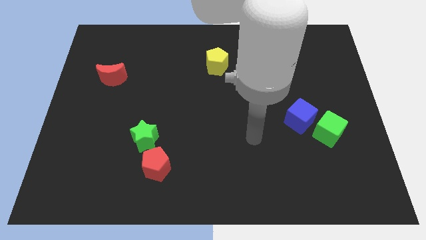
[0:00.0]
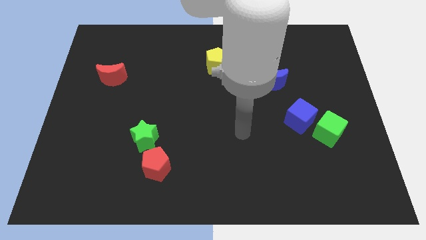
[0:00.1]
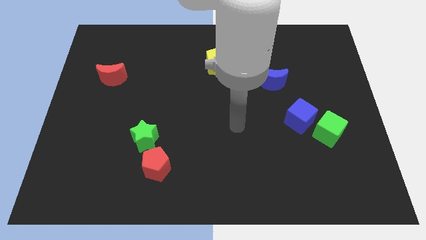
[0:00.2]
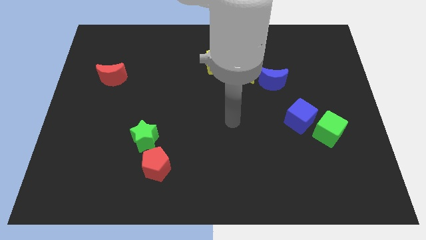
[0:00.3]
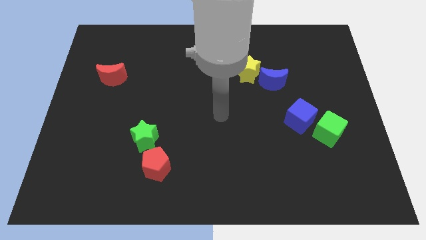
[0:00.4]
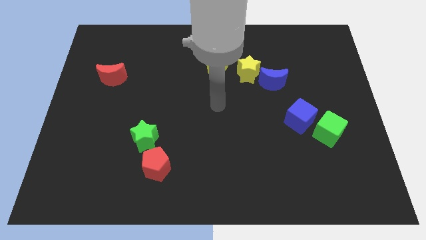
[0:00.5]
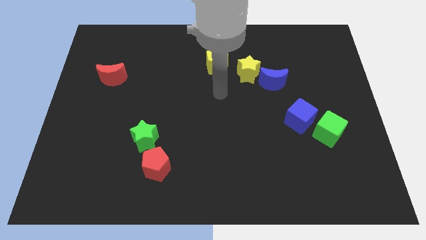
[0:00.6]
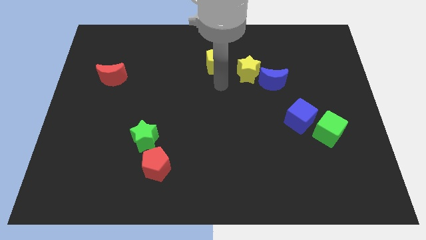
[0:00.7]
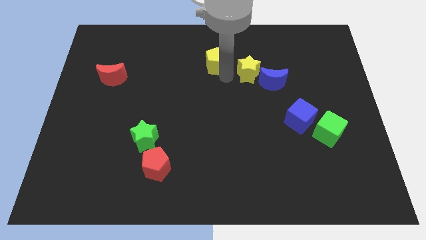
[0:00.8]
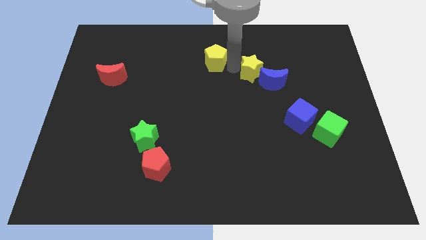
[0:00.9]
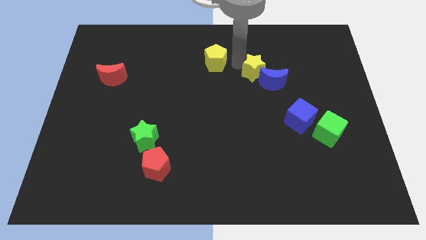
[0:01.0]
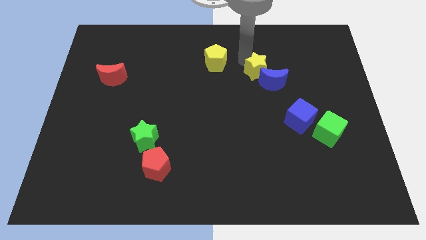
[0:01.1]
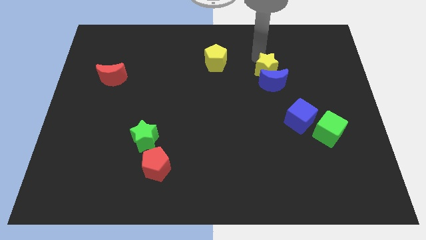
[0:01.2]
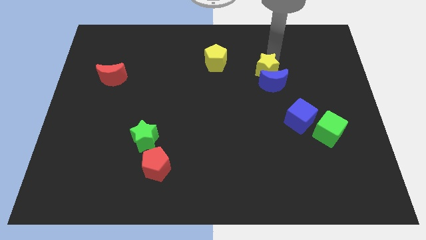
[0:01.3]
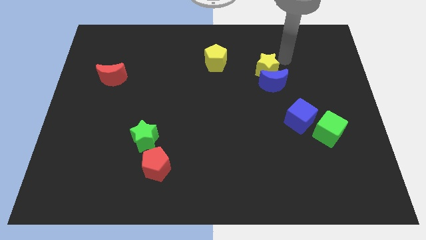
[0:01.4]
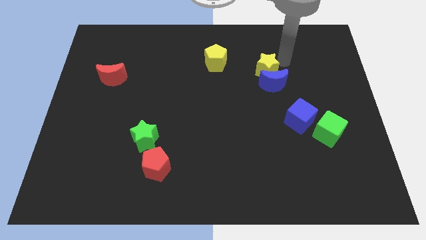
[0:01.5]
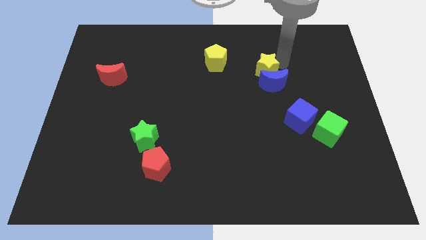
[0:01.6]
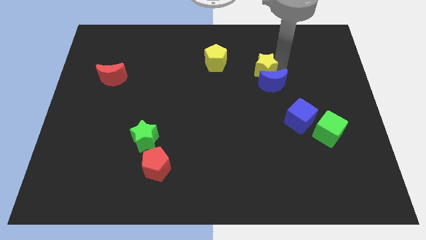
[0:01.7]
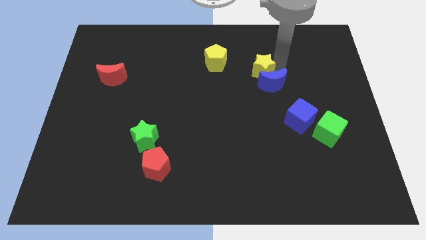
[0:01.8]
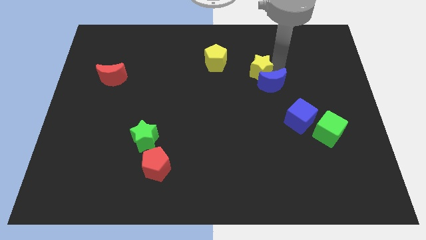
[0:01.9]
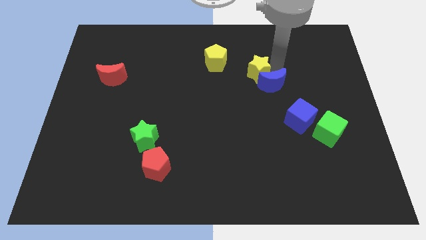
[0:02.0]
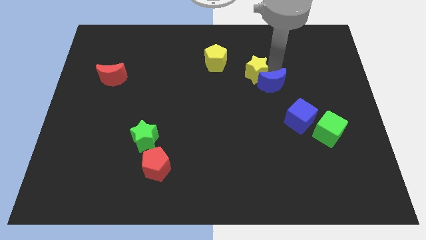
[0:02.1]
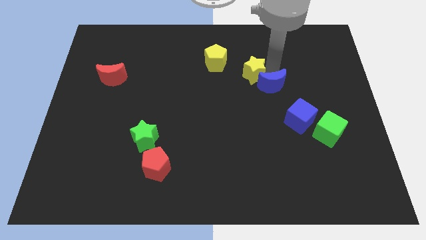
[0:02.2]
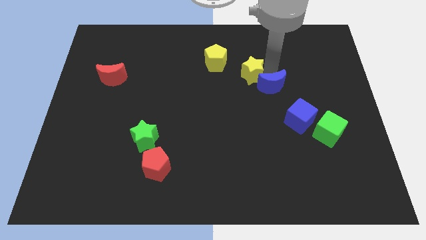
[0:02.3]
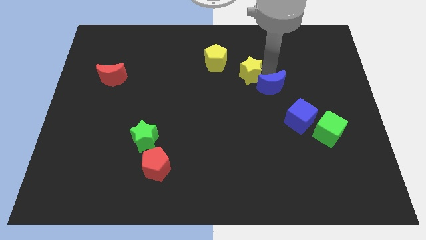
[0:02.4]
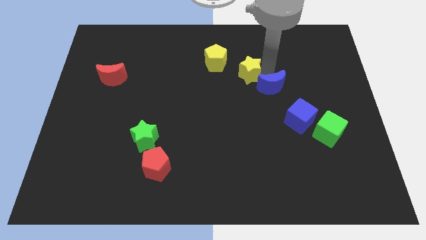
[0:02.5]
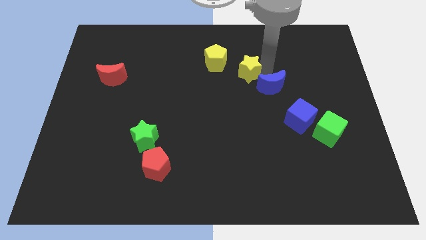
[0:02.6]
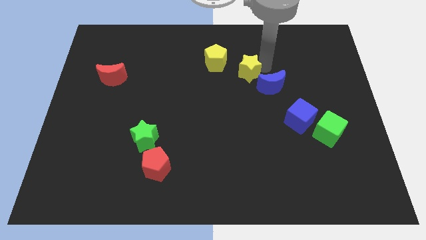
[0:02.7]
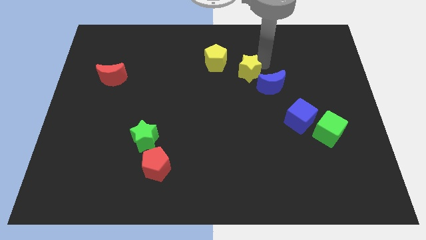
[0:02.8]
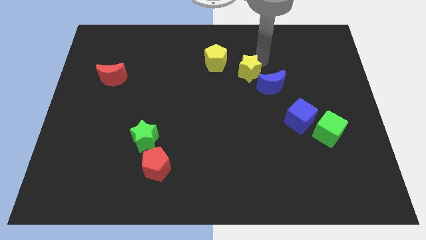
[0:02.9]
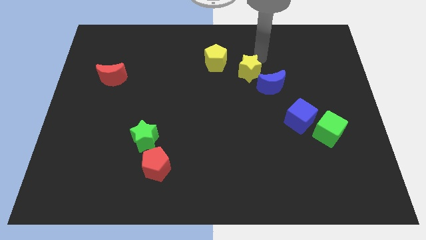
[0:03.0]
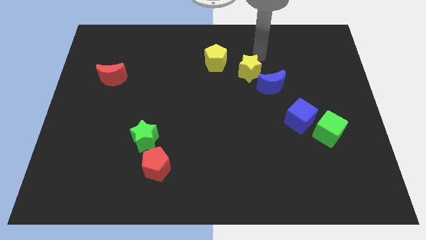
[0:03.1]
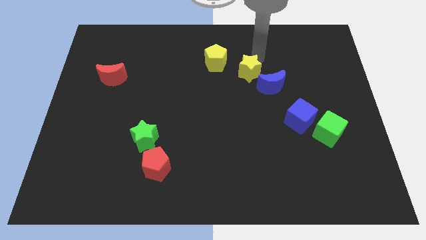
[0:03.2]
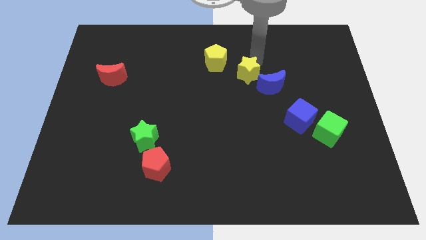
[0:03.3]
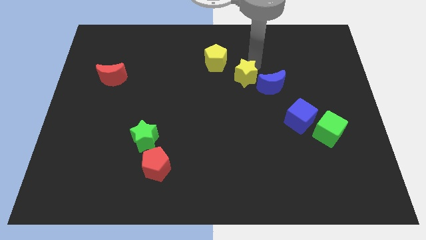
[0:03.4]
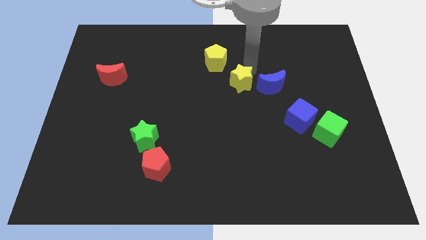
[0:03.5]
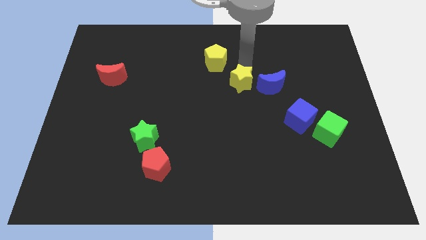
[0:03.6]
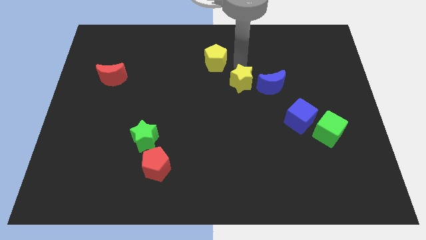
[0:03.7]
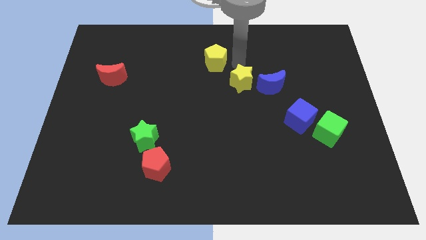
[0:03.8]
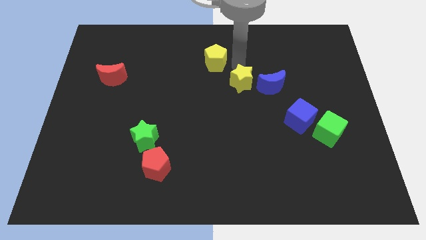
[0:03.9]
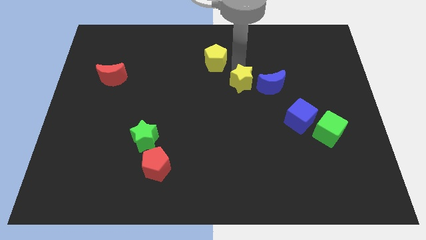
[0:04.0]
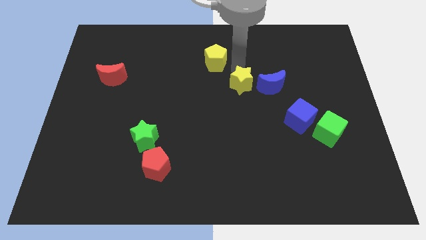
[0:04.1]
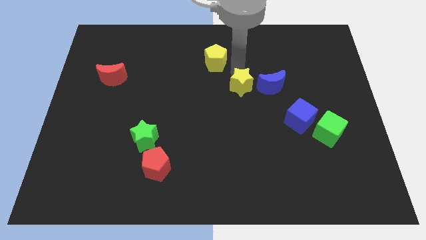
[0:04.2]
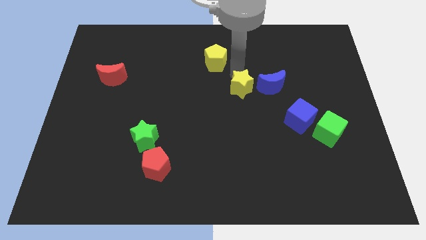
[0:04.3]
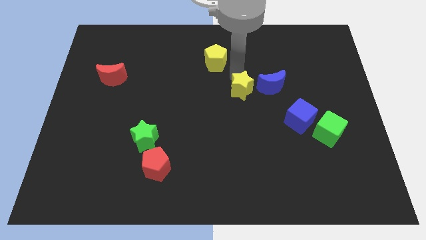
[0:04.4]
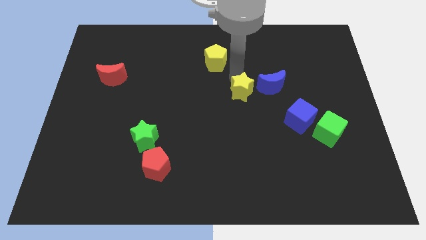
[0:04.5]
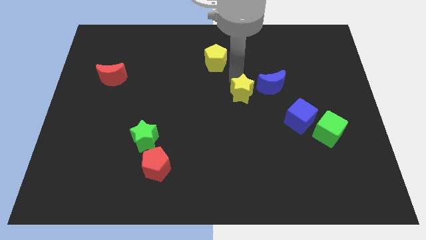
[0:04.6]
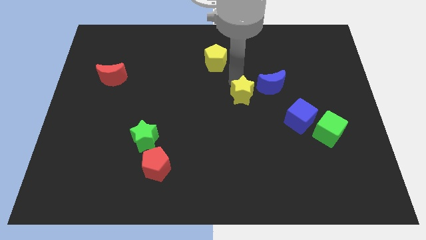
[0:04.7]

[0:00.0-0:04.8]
slide the yellow star slightly down

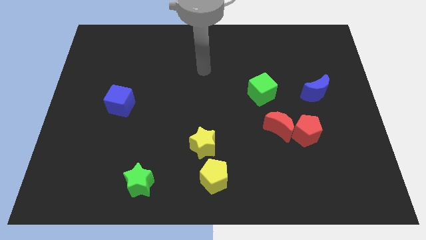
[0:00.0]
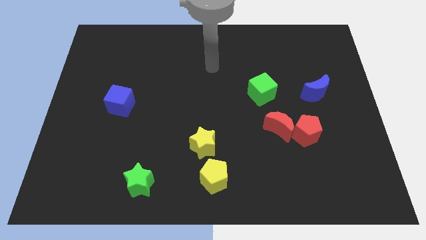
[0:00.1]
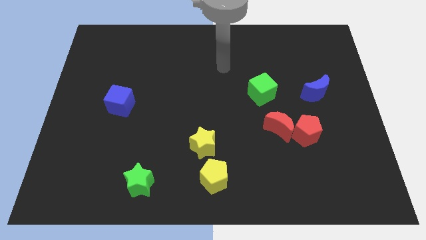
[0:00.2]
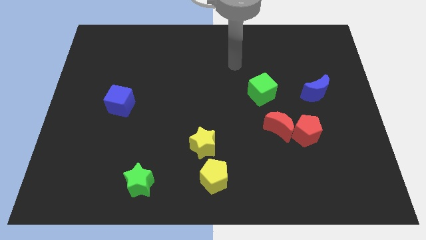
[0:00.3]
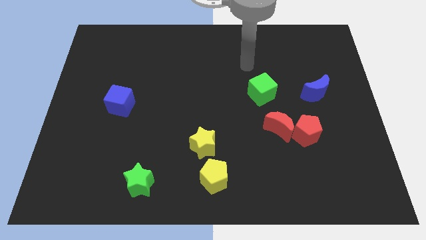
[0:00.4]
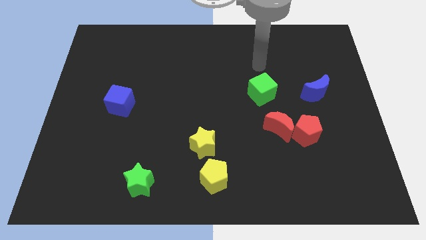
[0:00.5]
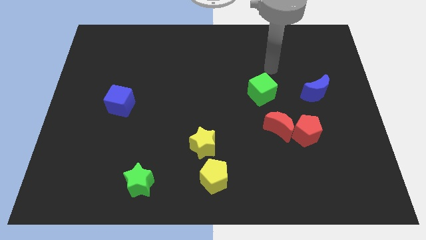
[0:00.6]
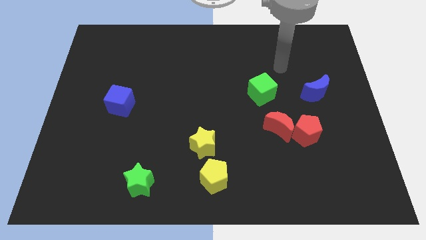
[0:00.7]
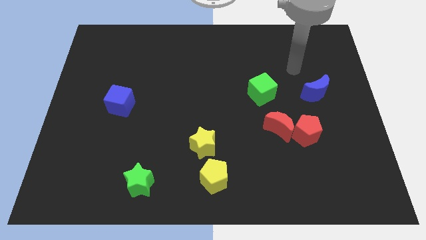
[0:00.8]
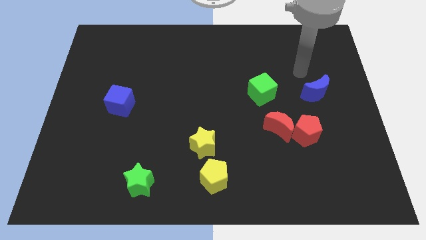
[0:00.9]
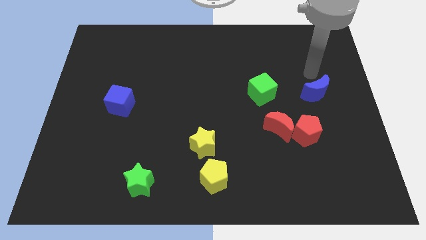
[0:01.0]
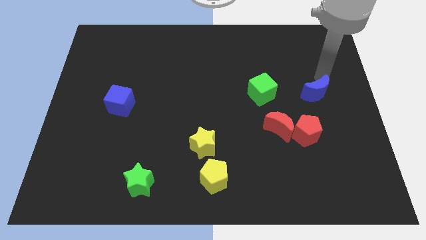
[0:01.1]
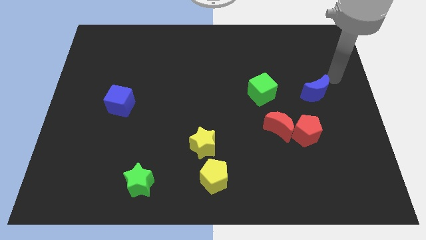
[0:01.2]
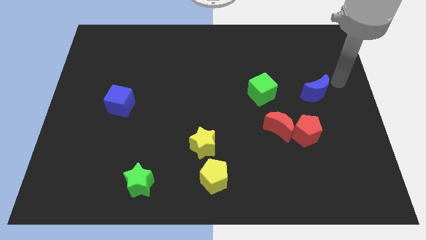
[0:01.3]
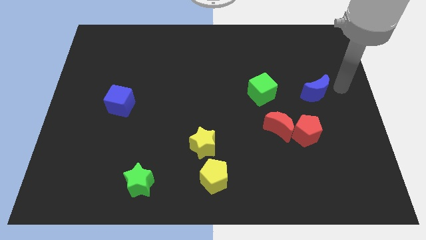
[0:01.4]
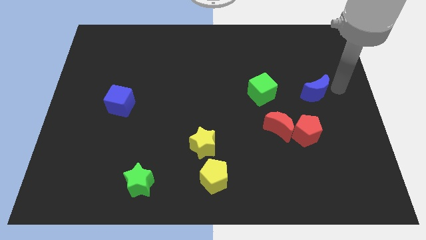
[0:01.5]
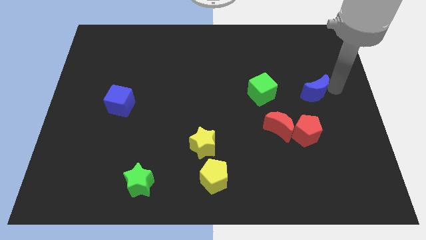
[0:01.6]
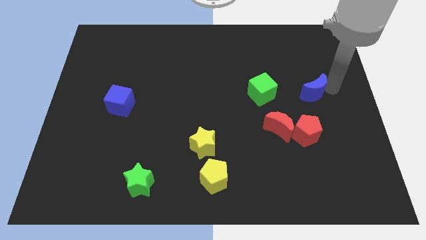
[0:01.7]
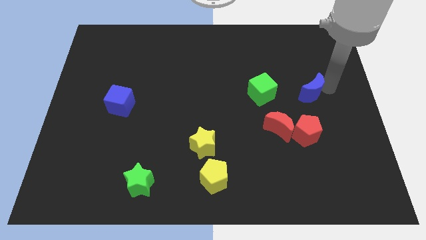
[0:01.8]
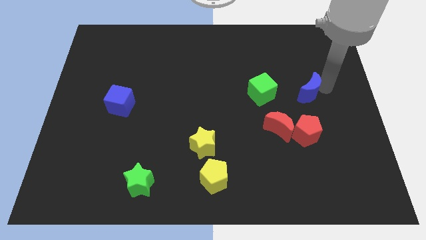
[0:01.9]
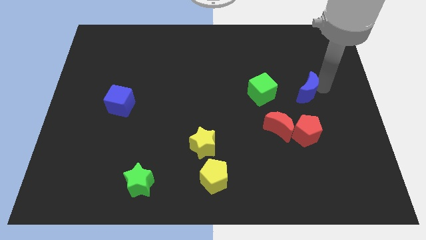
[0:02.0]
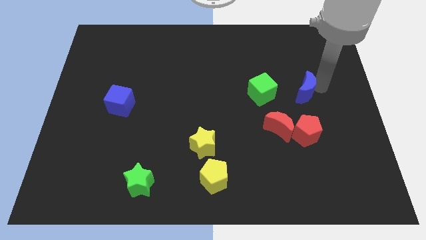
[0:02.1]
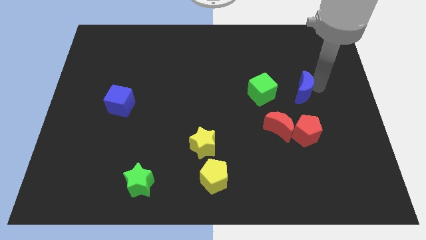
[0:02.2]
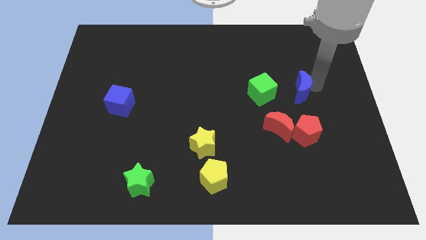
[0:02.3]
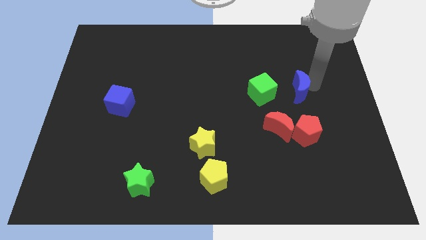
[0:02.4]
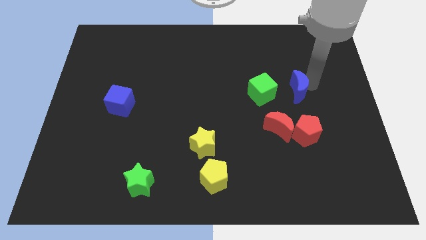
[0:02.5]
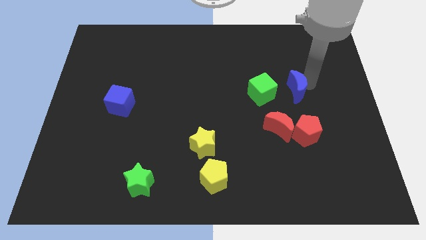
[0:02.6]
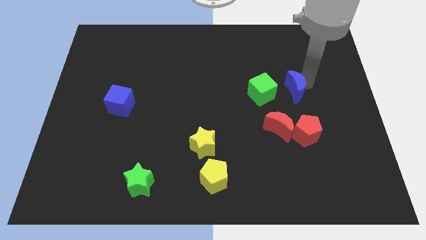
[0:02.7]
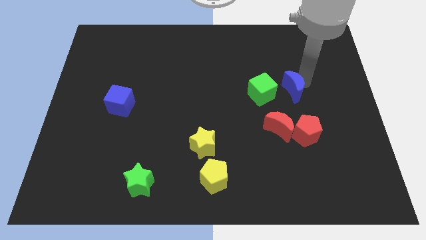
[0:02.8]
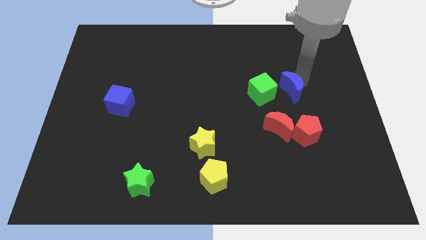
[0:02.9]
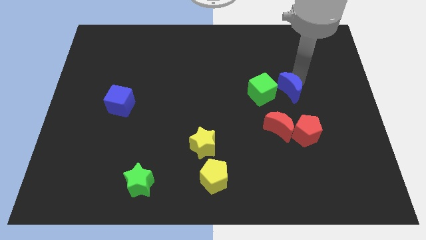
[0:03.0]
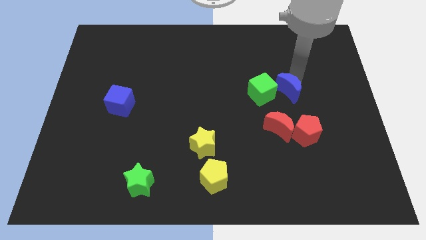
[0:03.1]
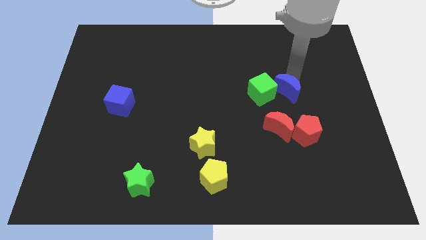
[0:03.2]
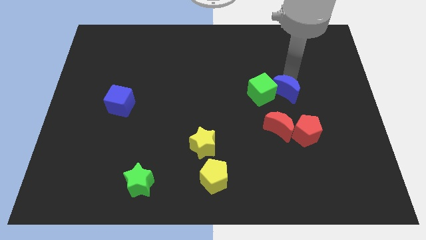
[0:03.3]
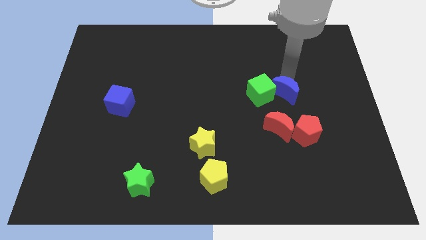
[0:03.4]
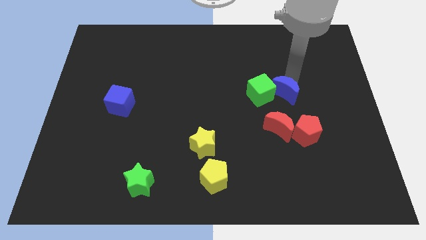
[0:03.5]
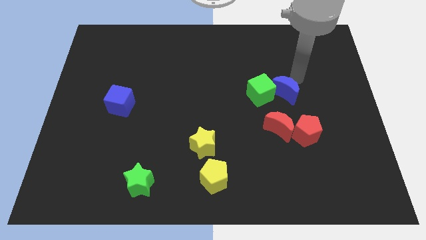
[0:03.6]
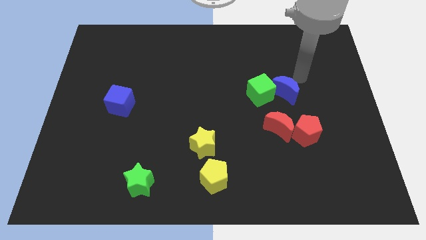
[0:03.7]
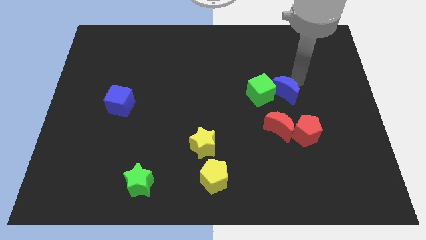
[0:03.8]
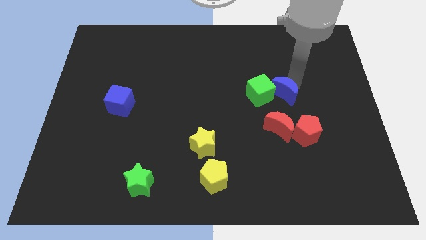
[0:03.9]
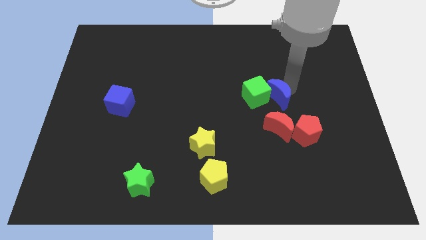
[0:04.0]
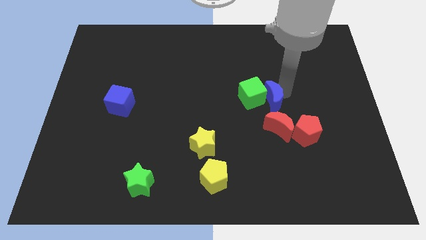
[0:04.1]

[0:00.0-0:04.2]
push the blue moon downwards and left a bit
